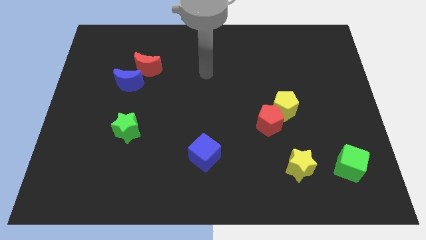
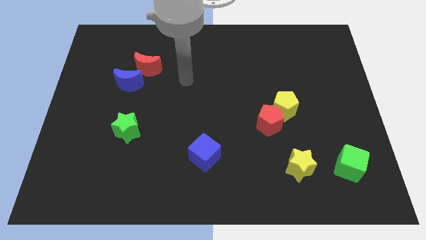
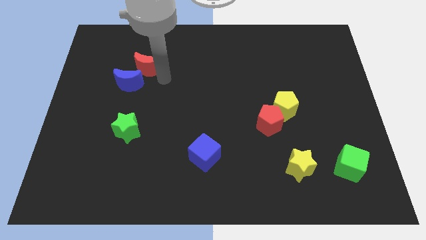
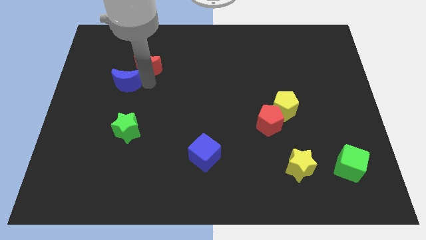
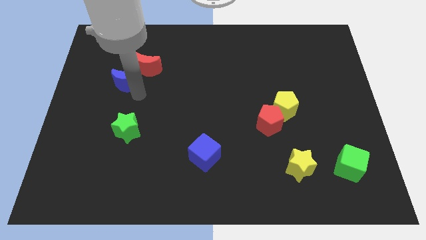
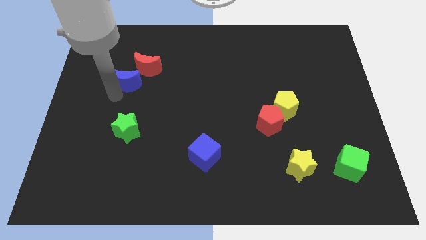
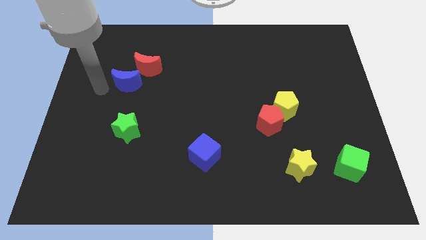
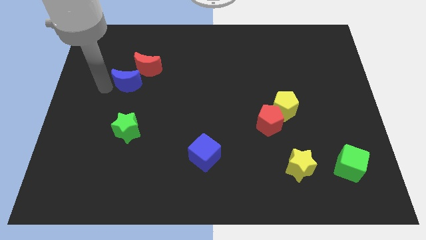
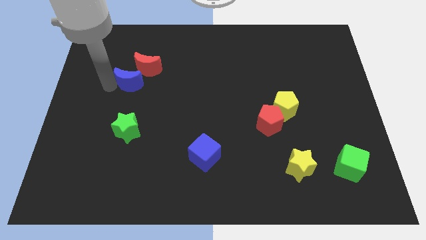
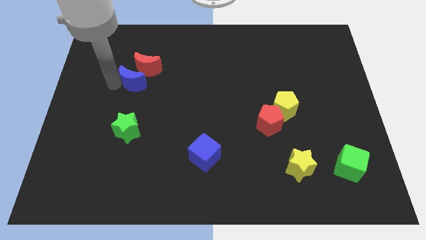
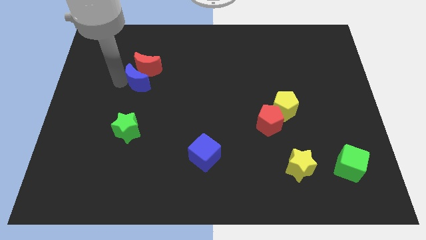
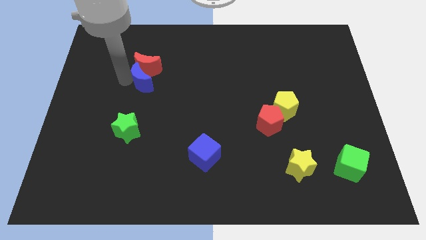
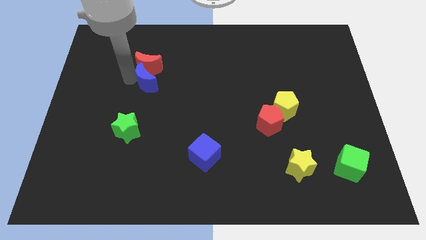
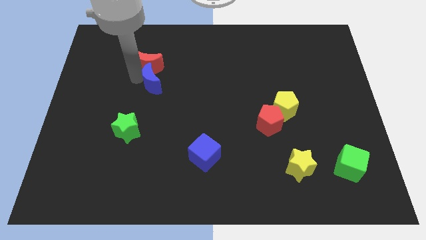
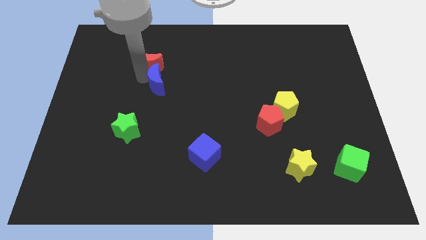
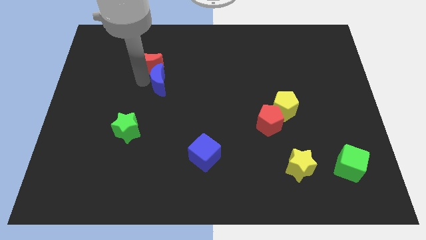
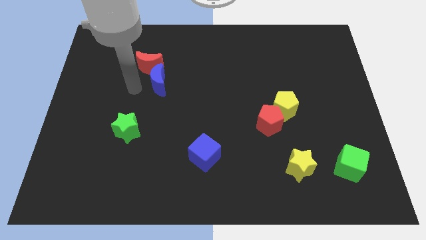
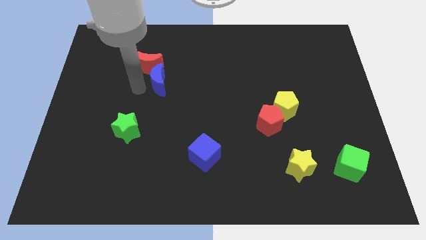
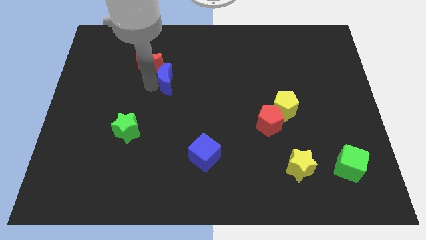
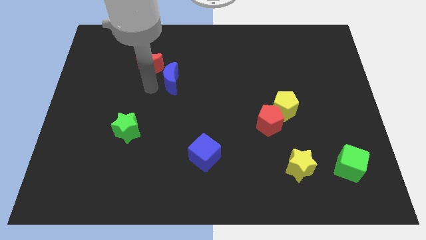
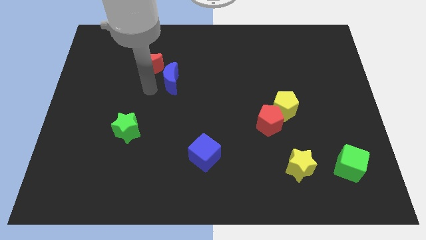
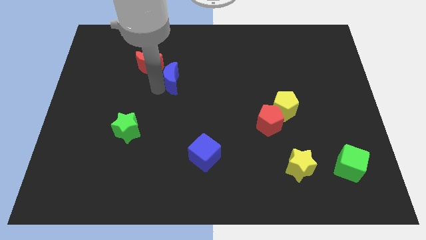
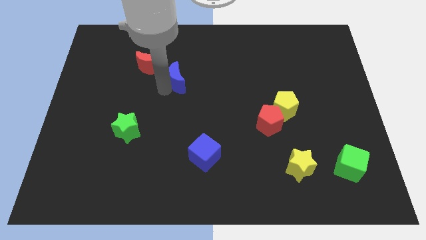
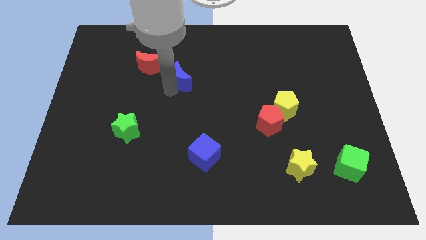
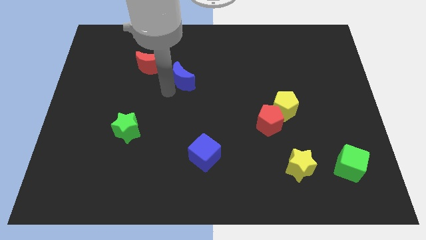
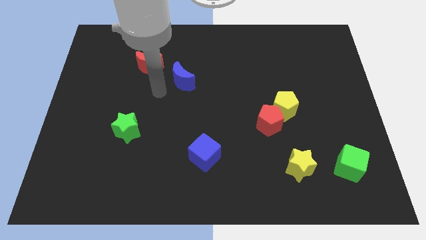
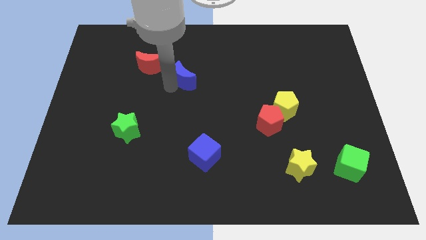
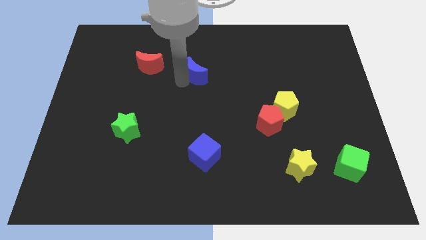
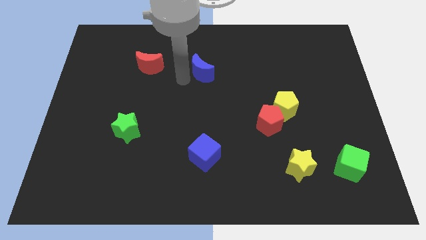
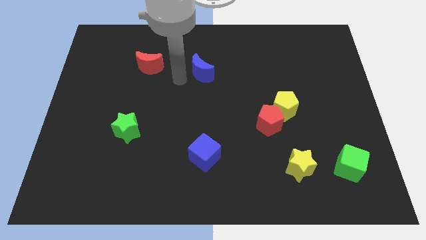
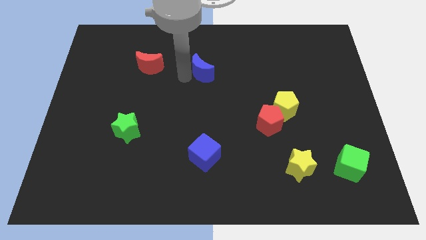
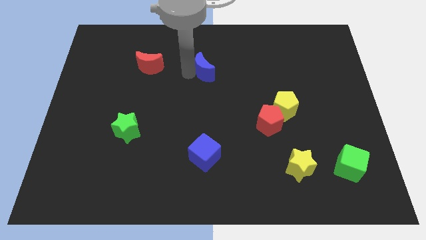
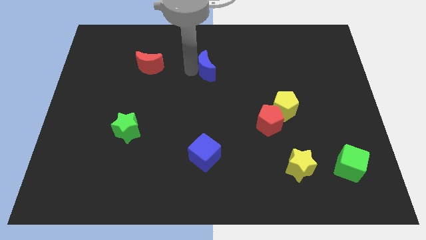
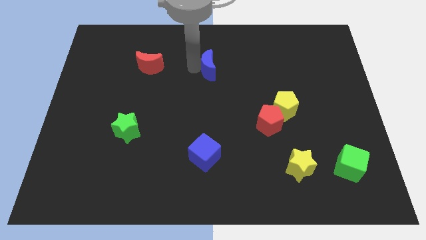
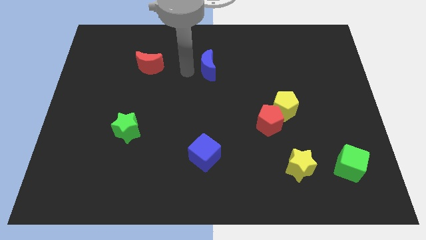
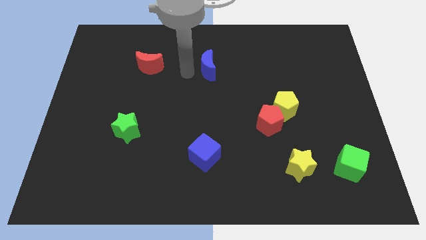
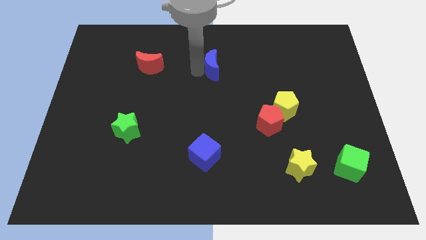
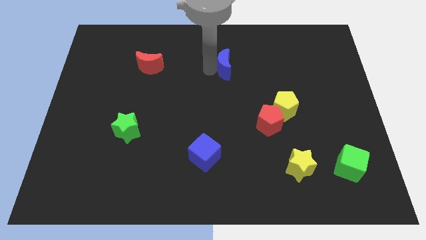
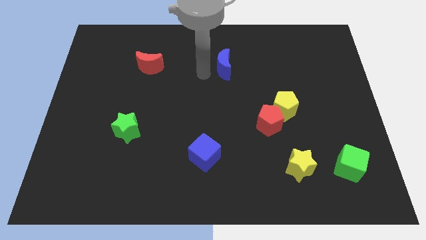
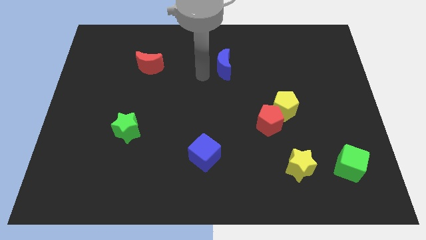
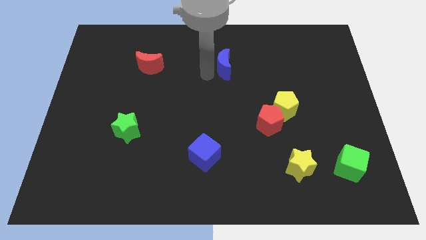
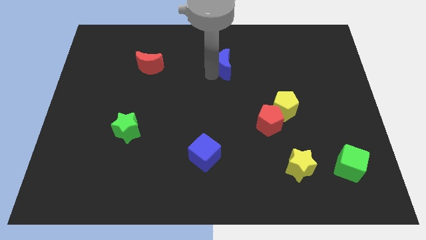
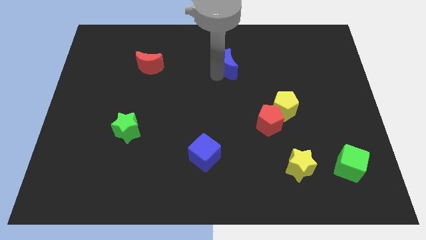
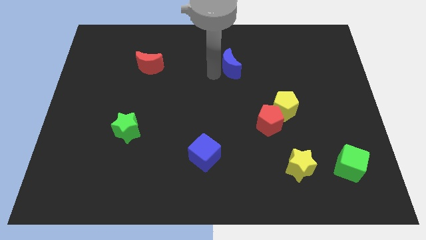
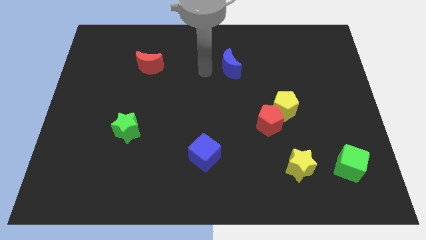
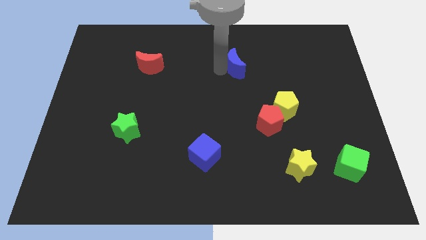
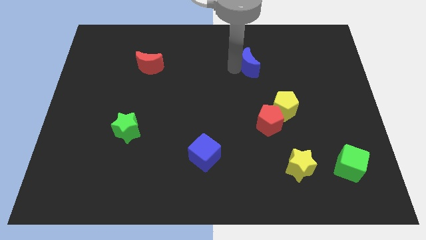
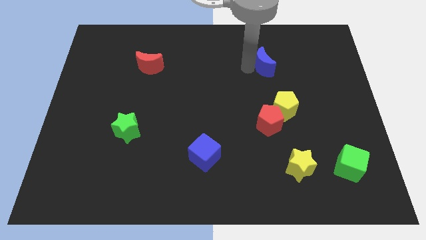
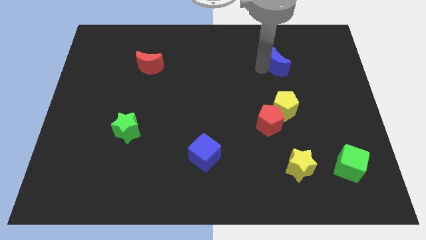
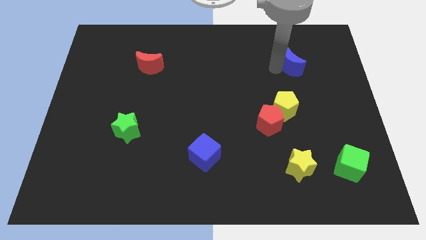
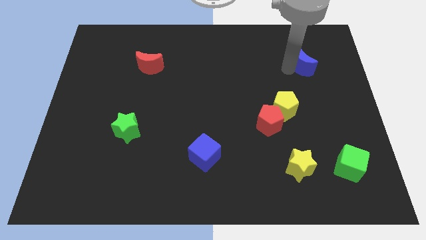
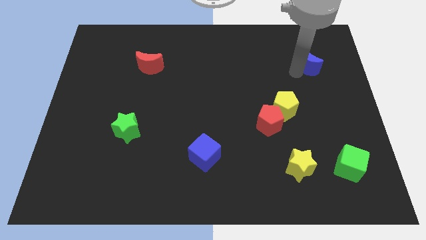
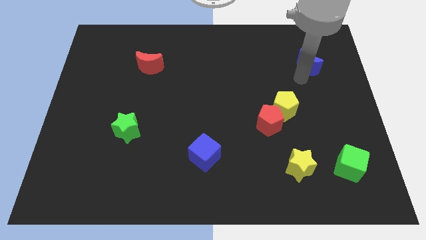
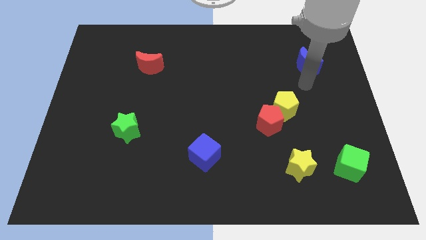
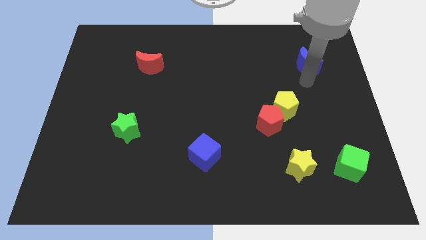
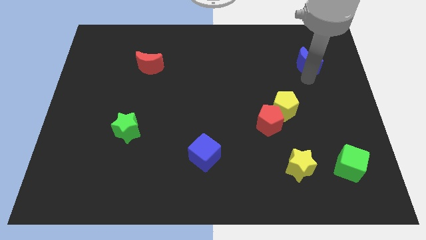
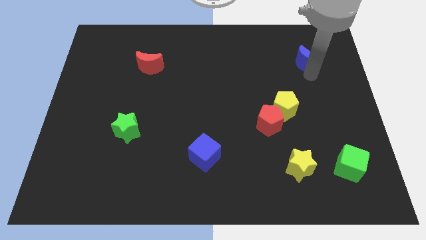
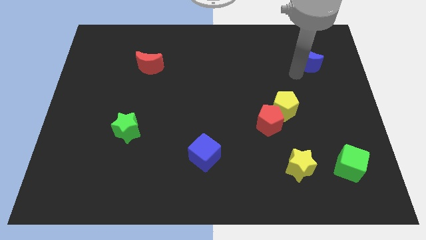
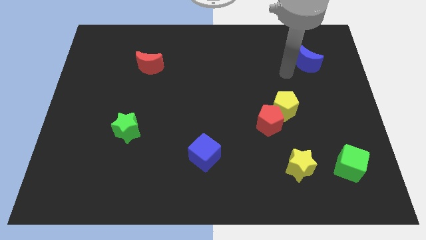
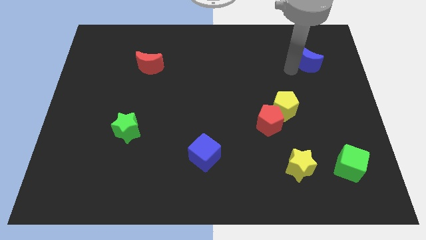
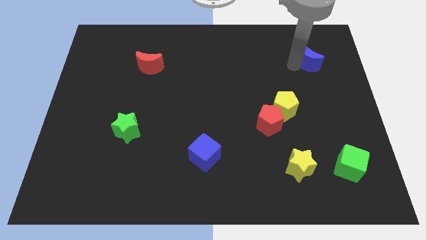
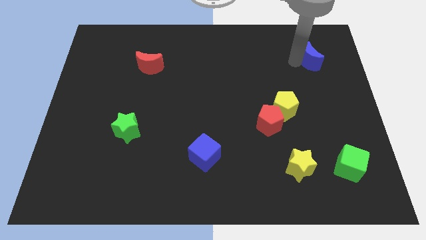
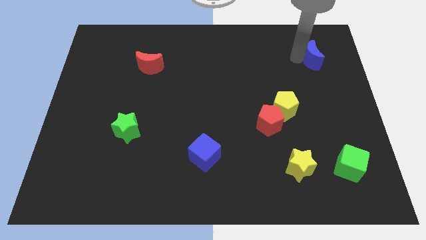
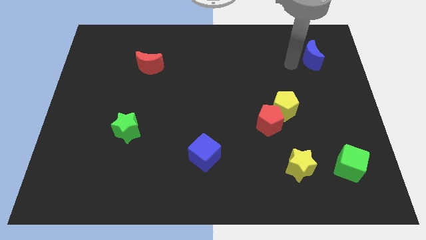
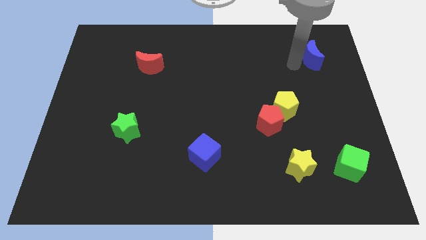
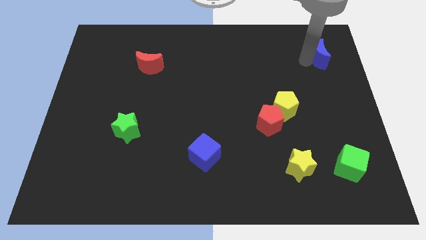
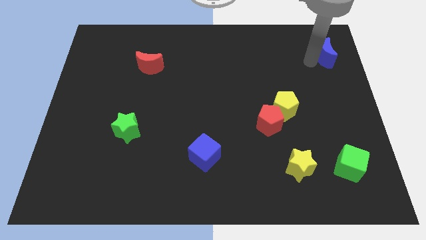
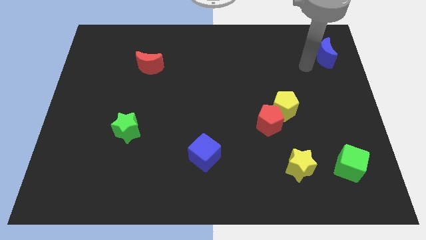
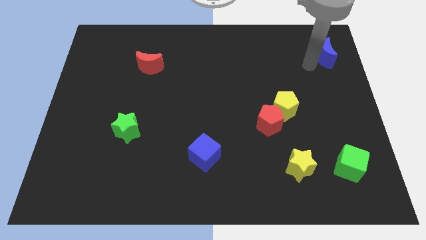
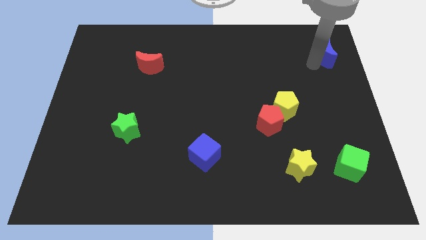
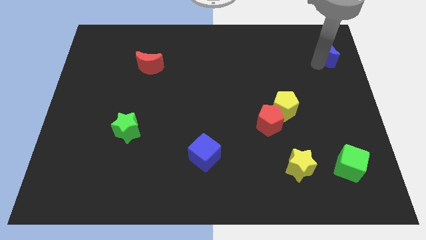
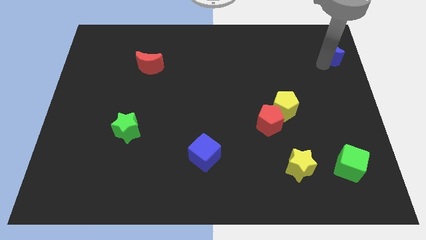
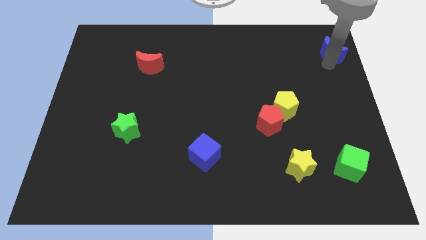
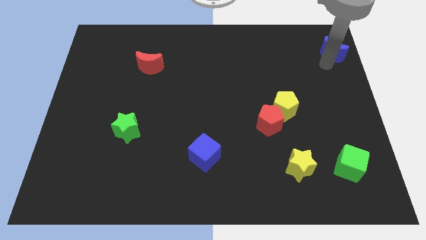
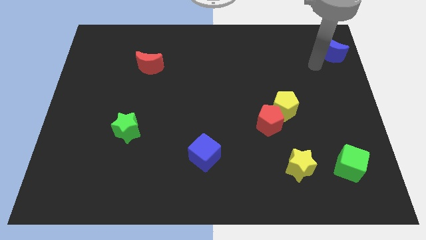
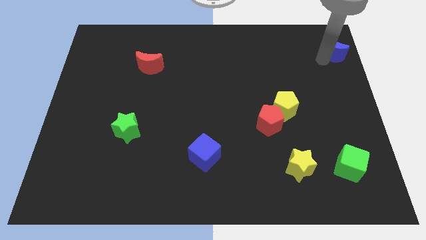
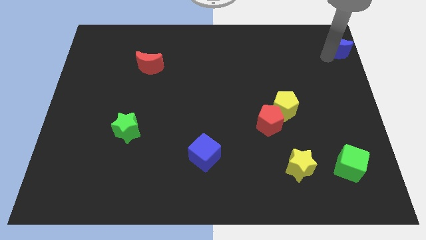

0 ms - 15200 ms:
put the blue moon to the upper right corner
